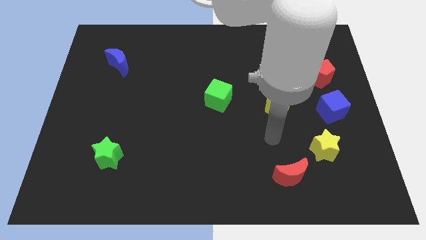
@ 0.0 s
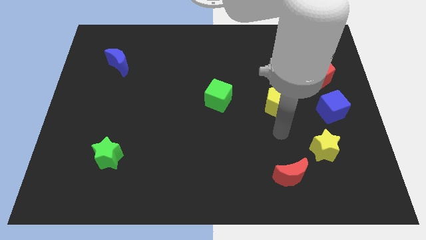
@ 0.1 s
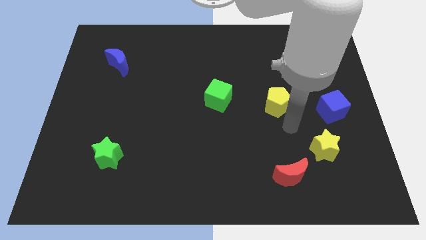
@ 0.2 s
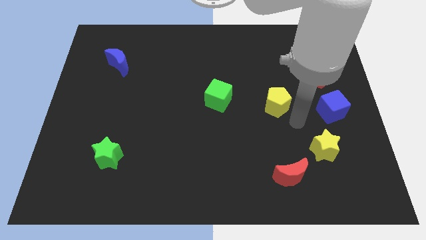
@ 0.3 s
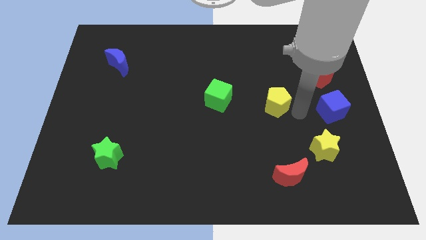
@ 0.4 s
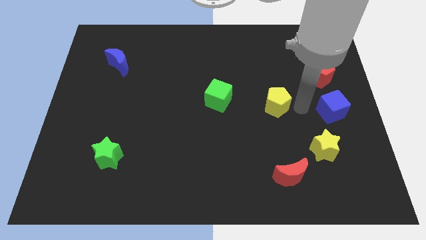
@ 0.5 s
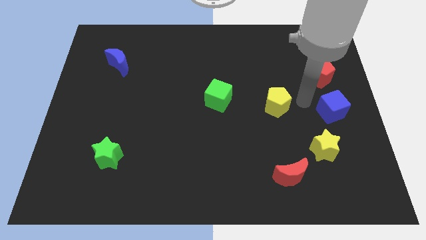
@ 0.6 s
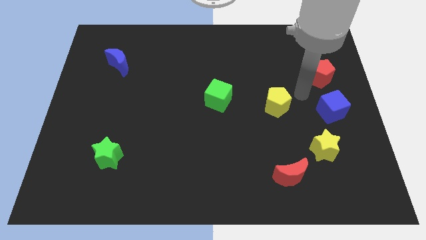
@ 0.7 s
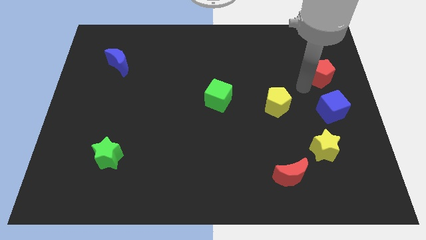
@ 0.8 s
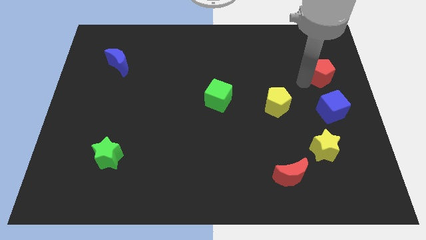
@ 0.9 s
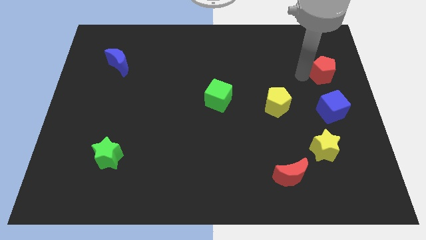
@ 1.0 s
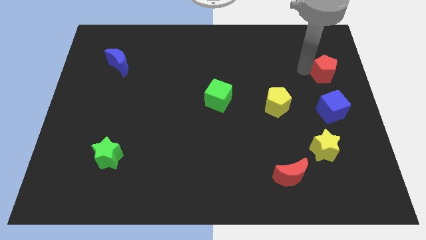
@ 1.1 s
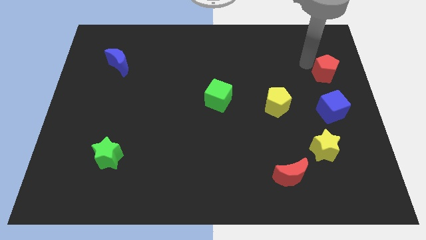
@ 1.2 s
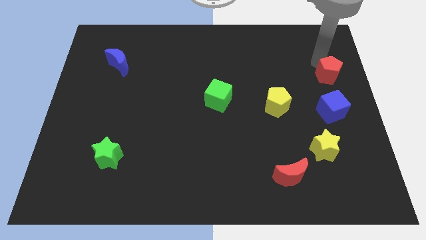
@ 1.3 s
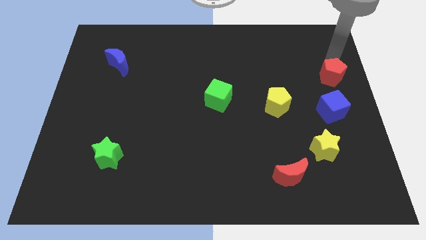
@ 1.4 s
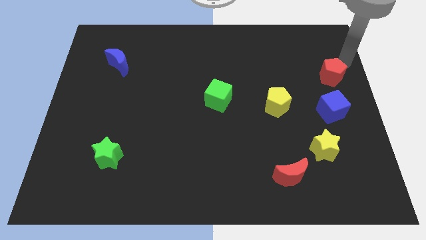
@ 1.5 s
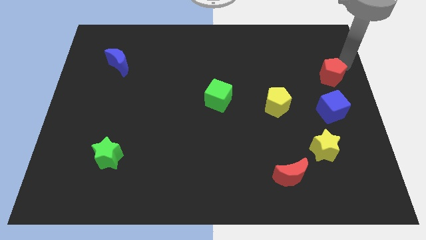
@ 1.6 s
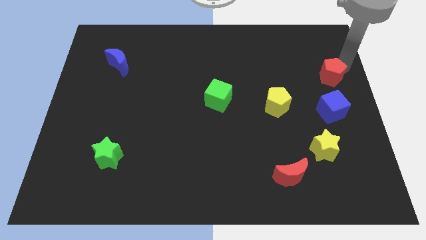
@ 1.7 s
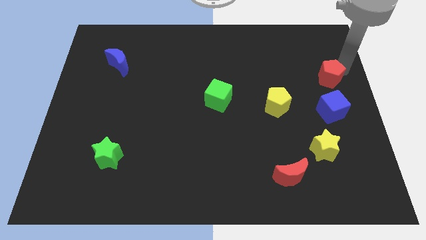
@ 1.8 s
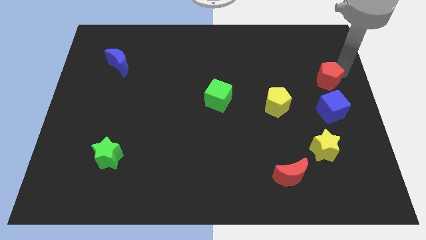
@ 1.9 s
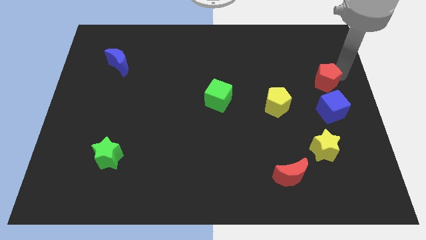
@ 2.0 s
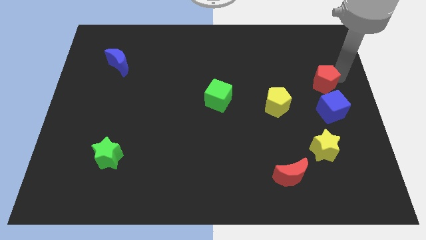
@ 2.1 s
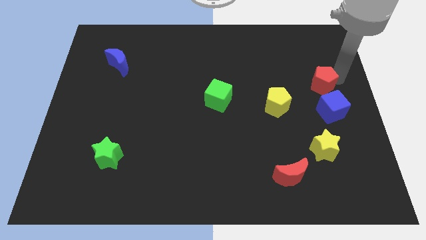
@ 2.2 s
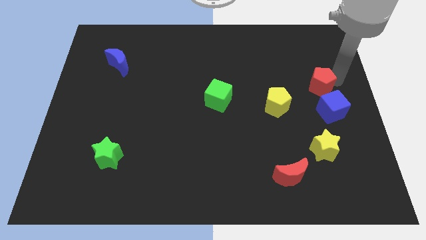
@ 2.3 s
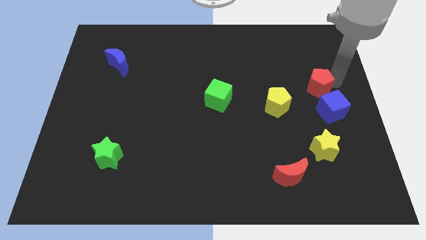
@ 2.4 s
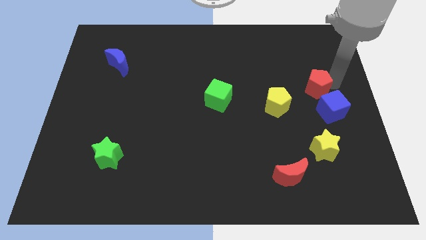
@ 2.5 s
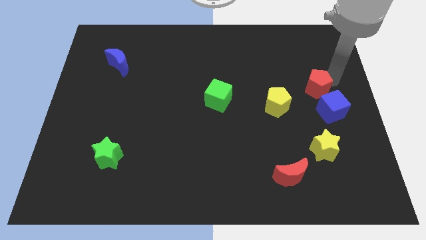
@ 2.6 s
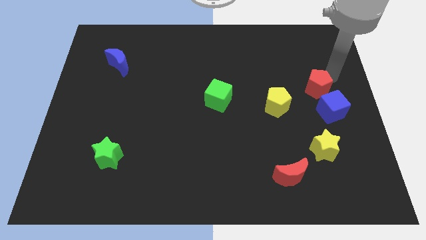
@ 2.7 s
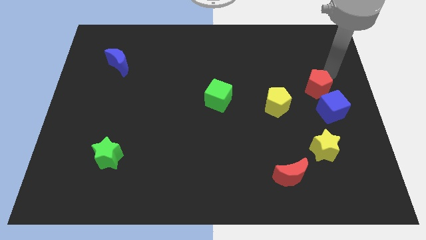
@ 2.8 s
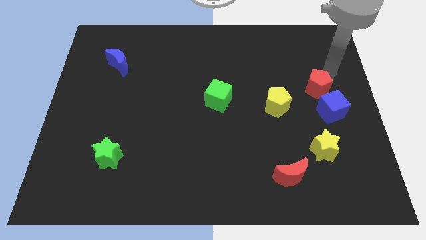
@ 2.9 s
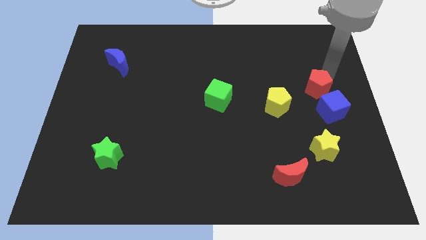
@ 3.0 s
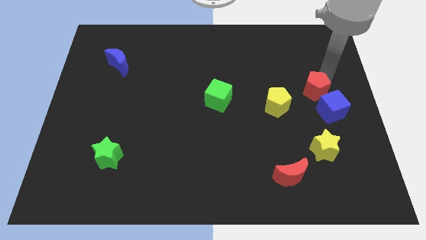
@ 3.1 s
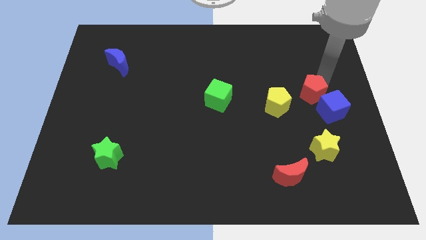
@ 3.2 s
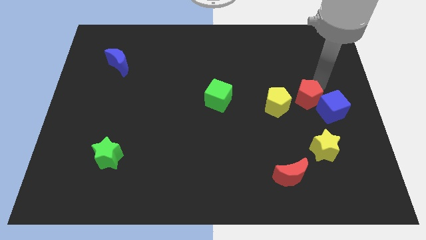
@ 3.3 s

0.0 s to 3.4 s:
slightly slide the red pentagon downwards and then to the left

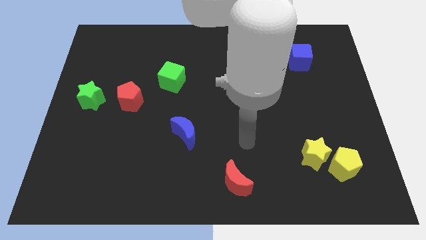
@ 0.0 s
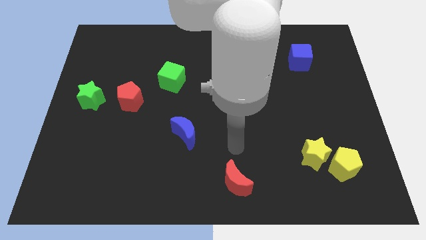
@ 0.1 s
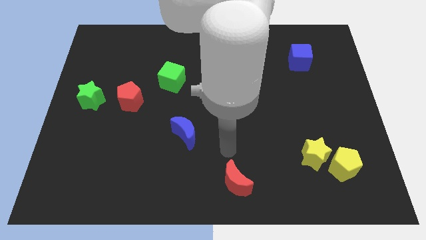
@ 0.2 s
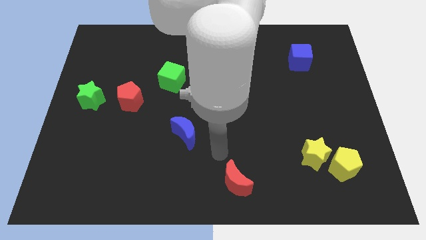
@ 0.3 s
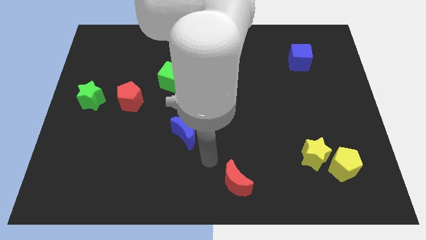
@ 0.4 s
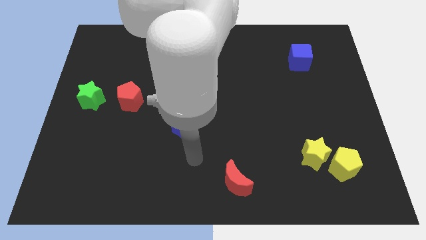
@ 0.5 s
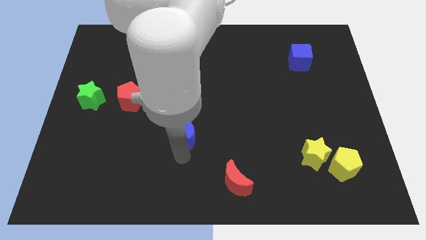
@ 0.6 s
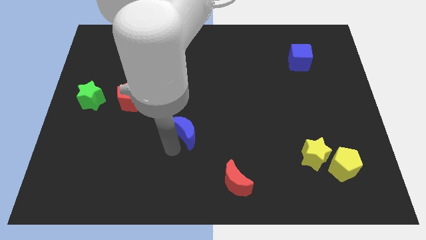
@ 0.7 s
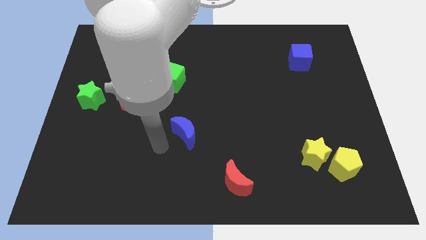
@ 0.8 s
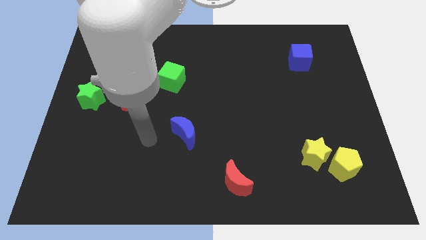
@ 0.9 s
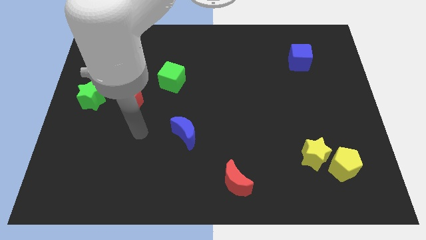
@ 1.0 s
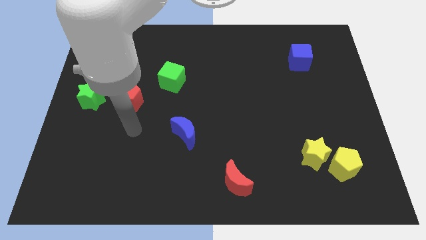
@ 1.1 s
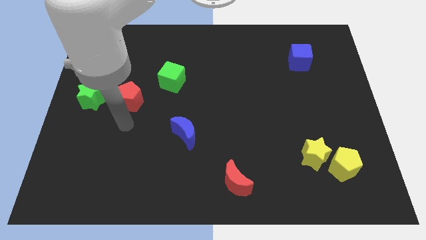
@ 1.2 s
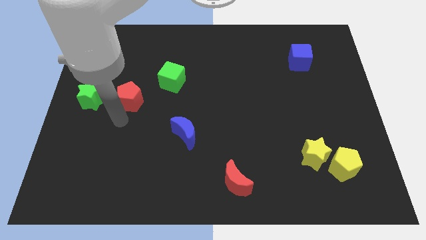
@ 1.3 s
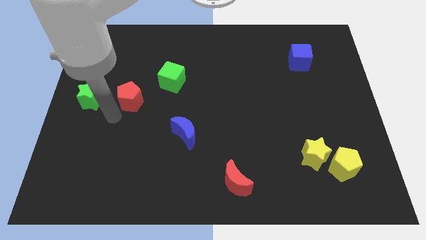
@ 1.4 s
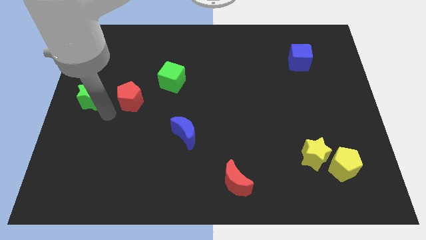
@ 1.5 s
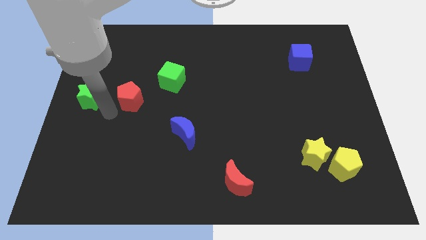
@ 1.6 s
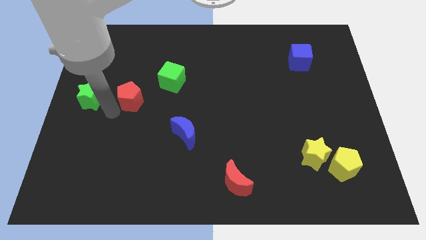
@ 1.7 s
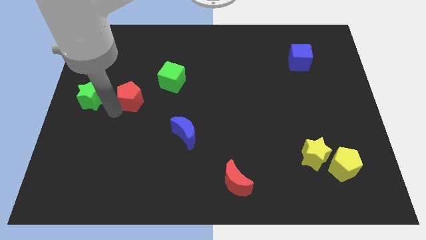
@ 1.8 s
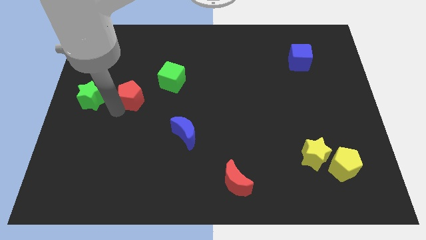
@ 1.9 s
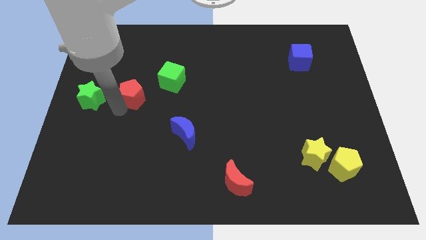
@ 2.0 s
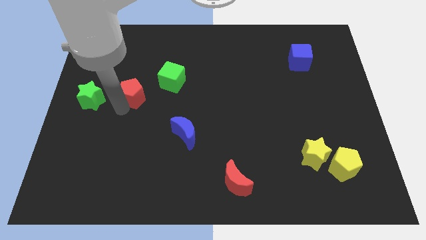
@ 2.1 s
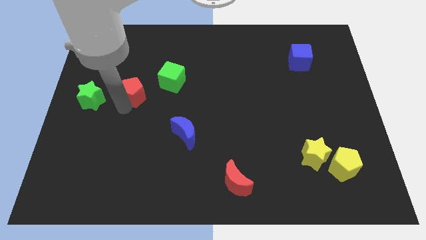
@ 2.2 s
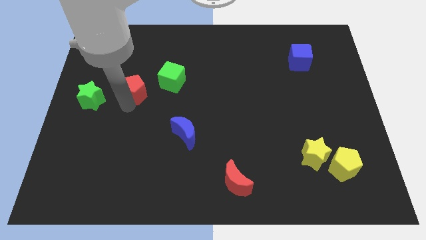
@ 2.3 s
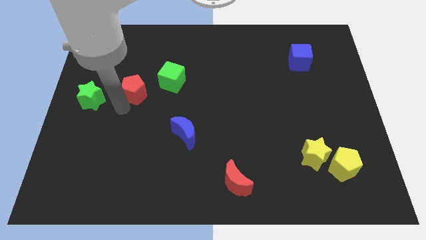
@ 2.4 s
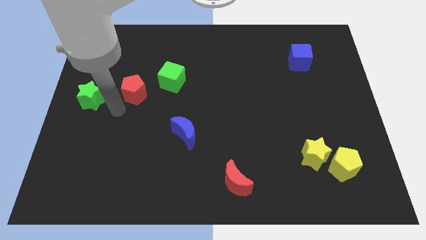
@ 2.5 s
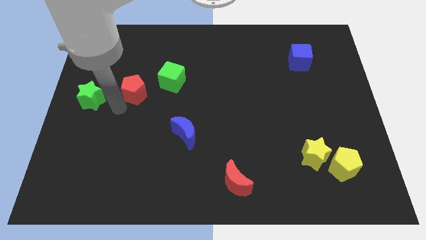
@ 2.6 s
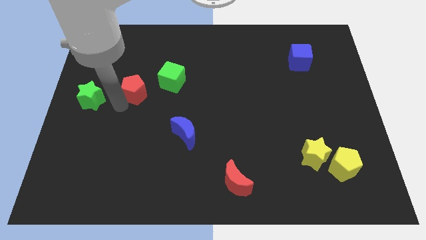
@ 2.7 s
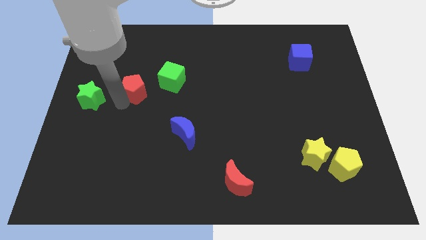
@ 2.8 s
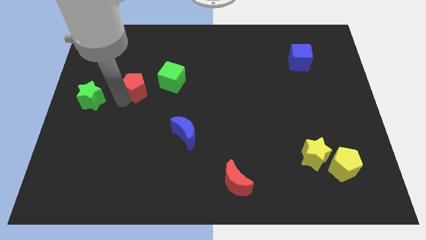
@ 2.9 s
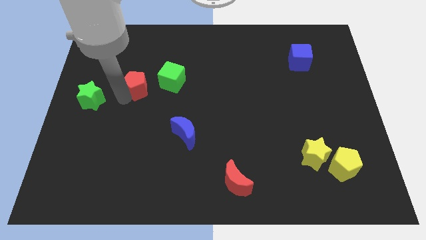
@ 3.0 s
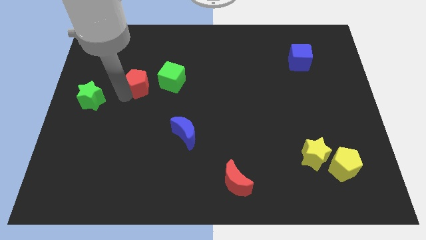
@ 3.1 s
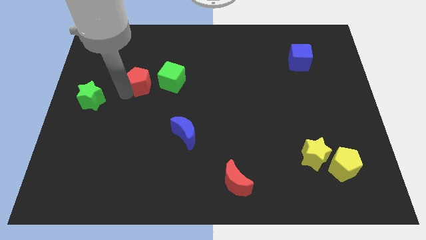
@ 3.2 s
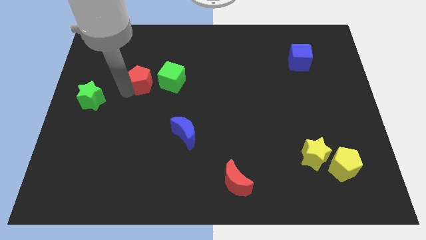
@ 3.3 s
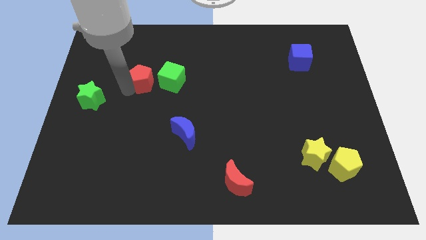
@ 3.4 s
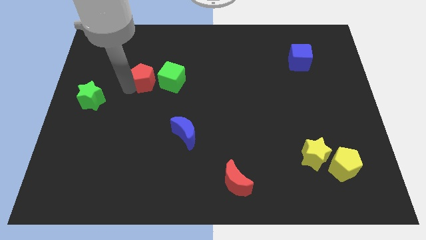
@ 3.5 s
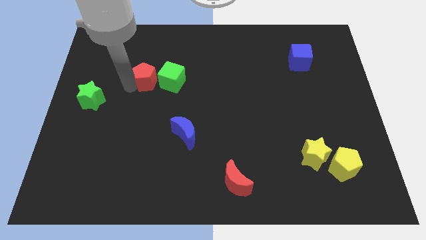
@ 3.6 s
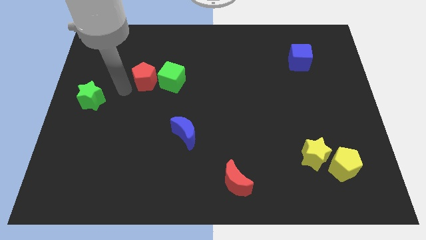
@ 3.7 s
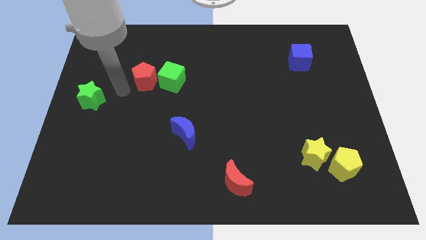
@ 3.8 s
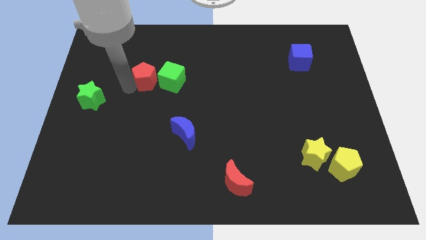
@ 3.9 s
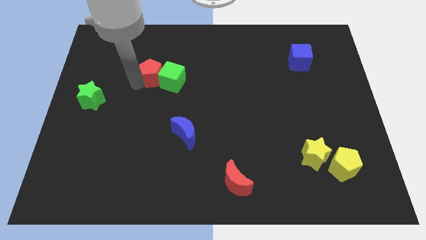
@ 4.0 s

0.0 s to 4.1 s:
slide the red pentagon up and then to the right a bit

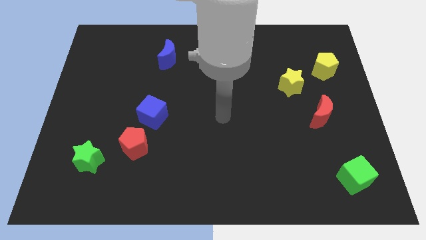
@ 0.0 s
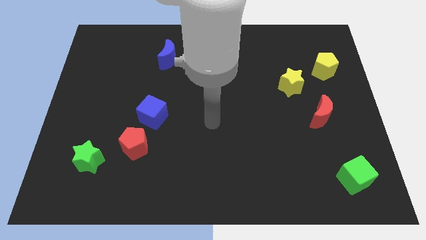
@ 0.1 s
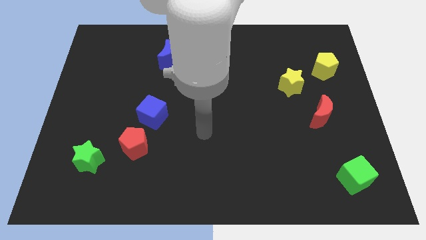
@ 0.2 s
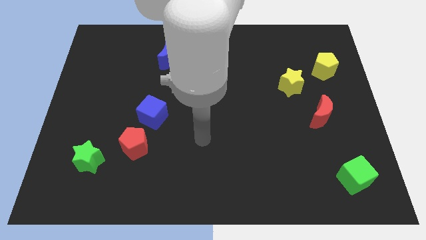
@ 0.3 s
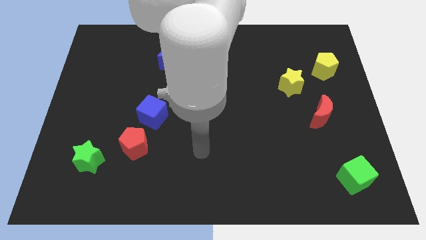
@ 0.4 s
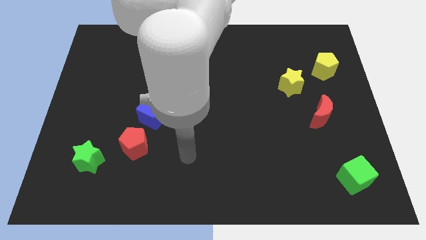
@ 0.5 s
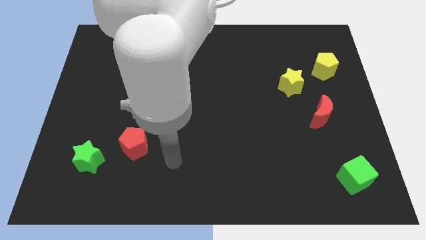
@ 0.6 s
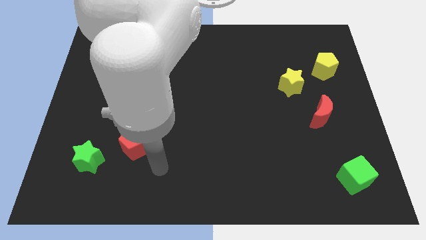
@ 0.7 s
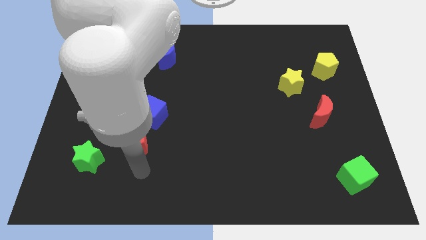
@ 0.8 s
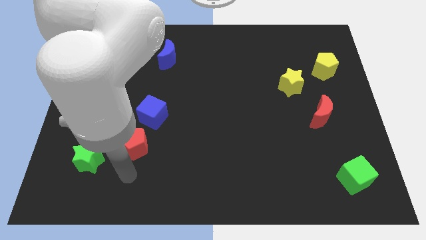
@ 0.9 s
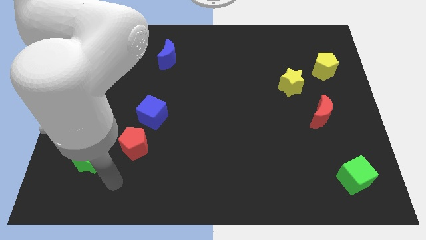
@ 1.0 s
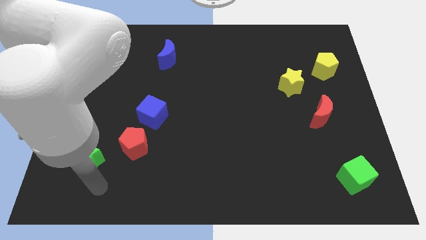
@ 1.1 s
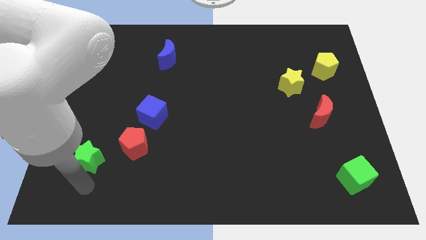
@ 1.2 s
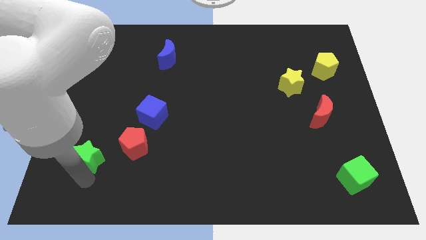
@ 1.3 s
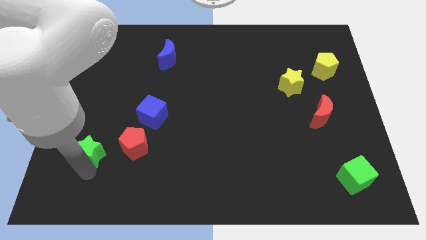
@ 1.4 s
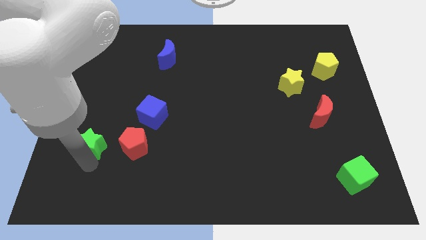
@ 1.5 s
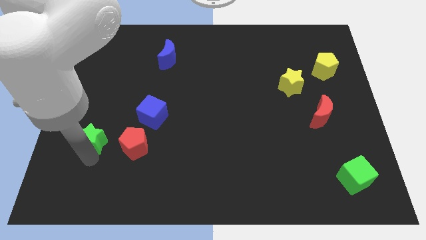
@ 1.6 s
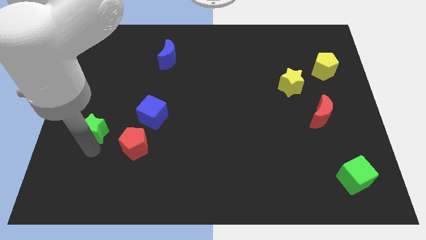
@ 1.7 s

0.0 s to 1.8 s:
slightly move the green star up
